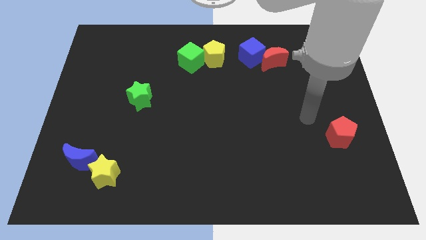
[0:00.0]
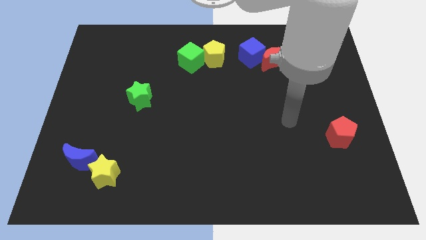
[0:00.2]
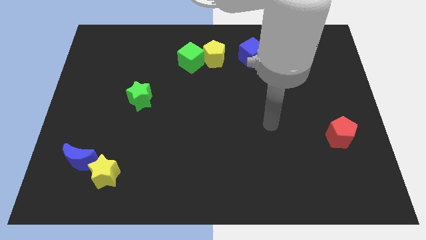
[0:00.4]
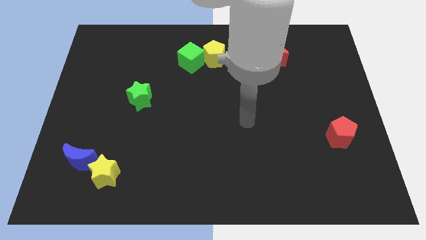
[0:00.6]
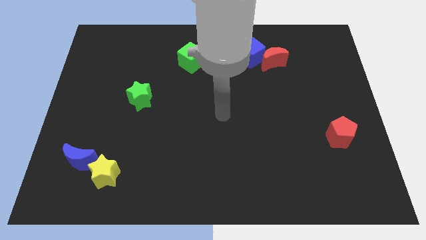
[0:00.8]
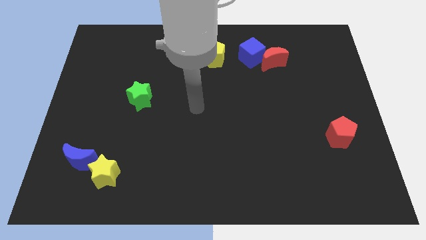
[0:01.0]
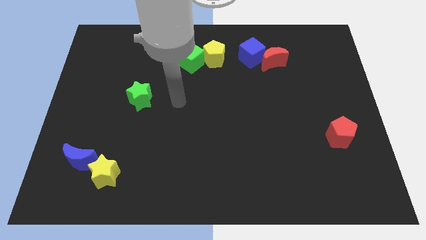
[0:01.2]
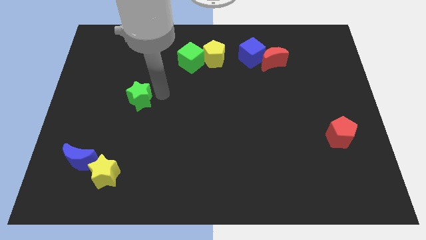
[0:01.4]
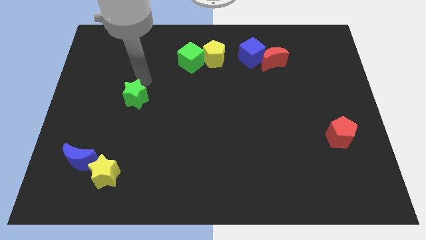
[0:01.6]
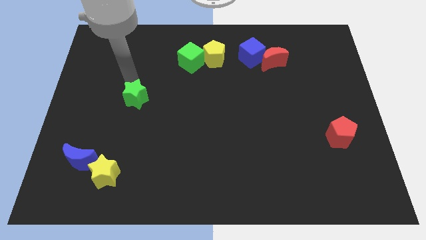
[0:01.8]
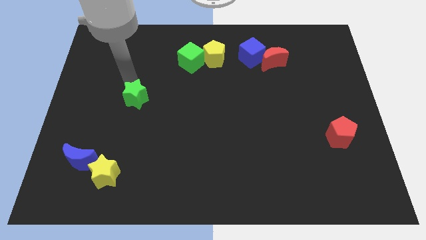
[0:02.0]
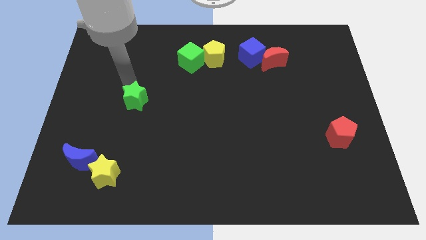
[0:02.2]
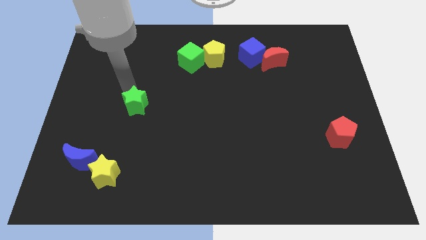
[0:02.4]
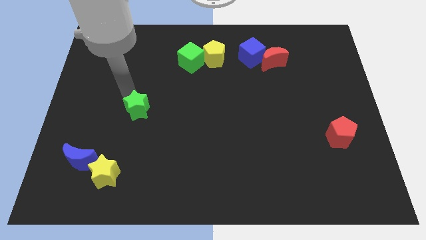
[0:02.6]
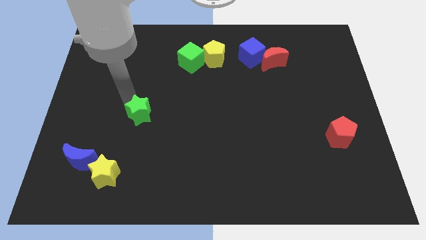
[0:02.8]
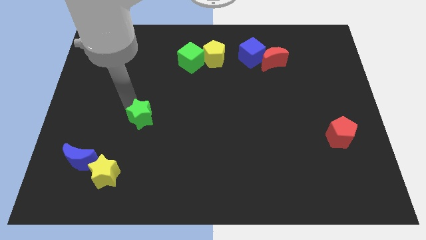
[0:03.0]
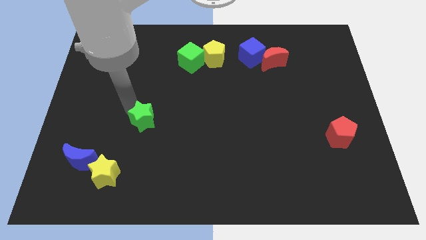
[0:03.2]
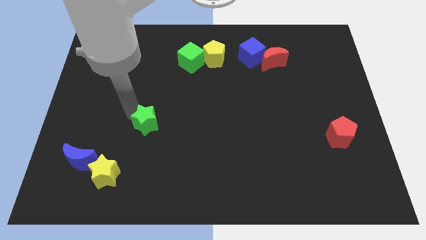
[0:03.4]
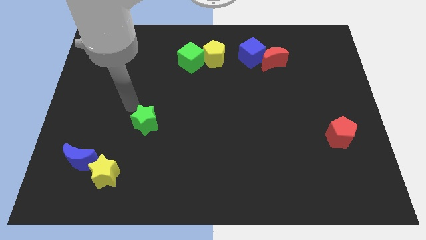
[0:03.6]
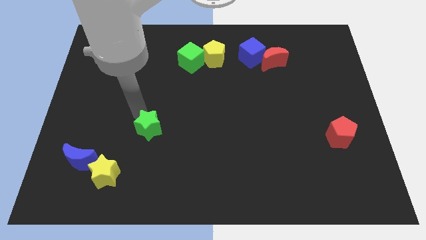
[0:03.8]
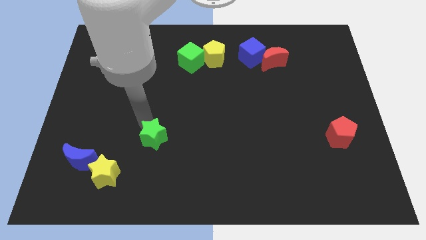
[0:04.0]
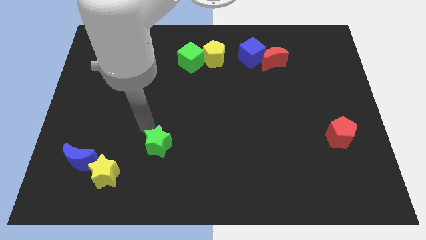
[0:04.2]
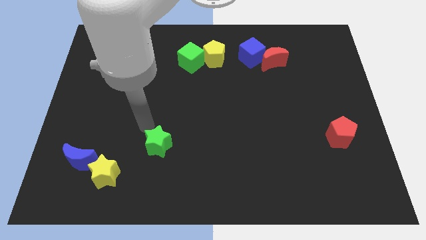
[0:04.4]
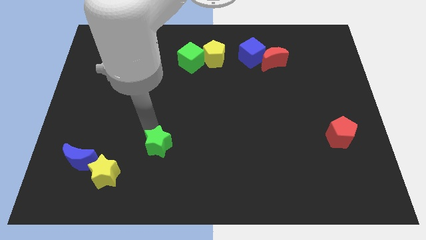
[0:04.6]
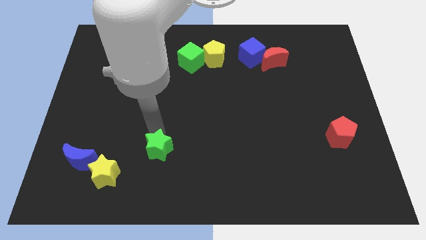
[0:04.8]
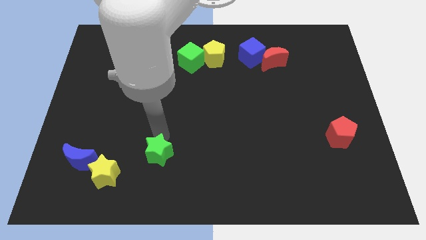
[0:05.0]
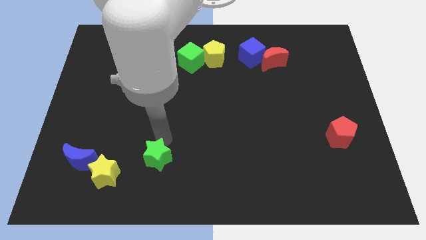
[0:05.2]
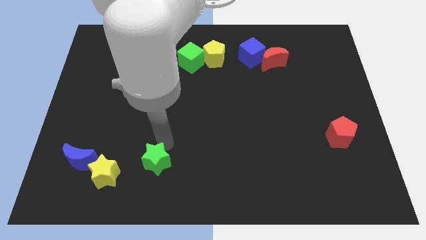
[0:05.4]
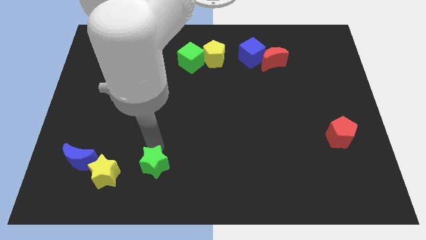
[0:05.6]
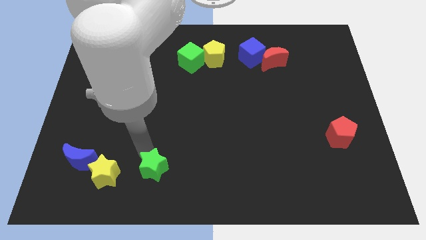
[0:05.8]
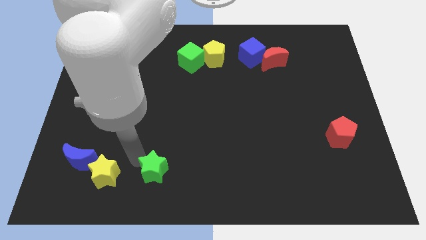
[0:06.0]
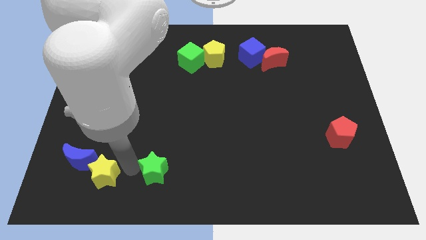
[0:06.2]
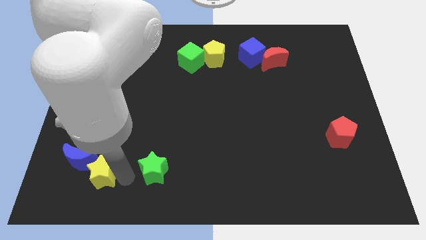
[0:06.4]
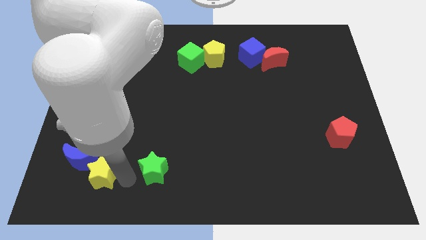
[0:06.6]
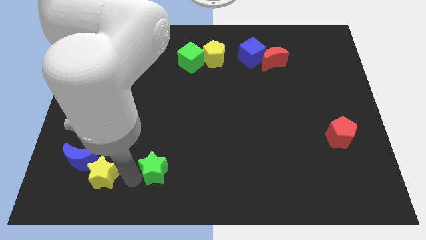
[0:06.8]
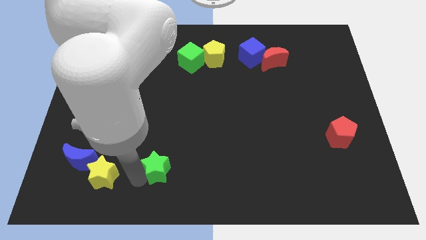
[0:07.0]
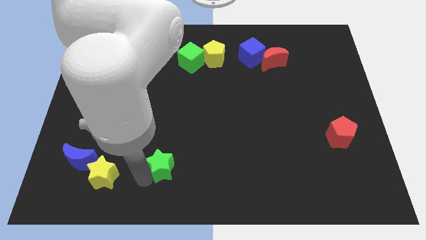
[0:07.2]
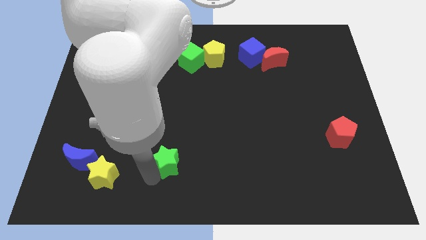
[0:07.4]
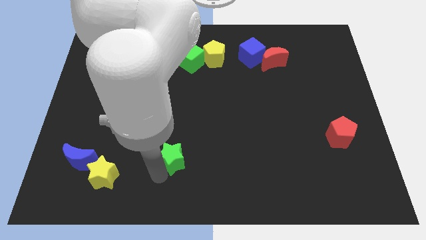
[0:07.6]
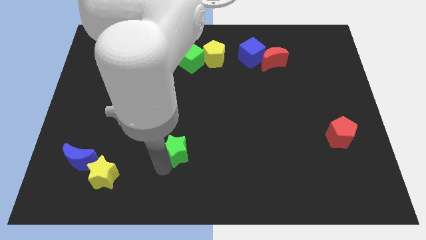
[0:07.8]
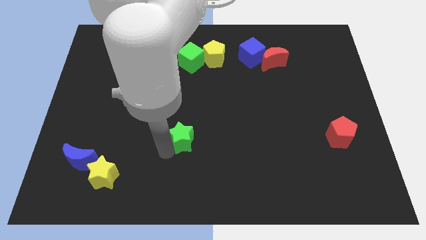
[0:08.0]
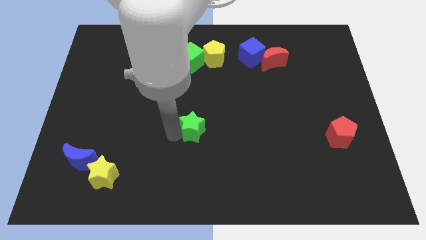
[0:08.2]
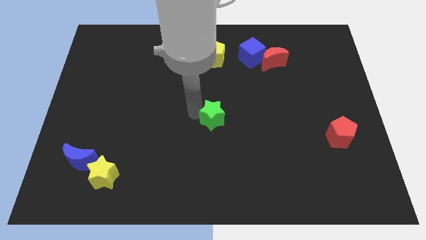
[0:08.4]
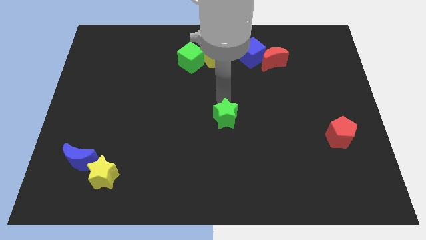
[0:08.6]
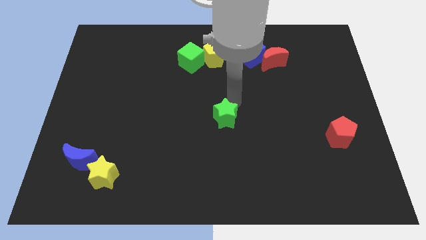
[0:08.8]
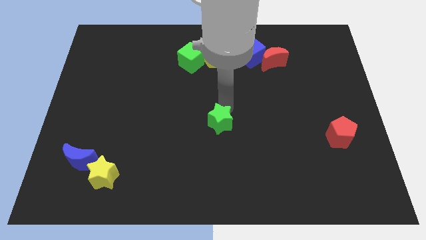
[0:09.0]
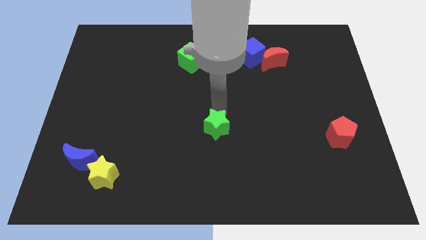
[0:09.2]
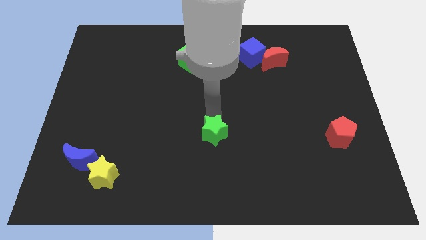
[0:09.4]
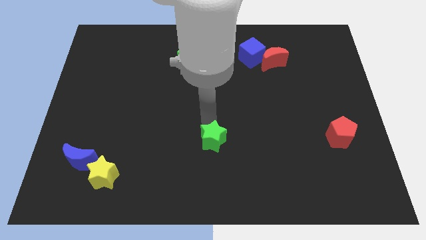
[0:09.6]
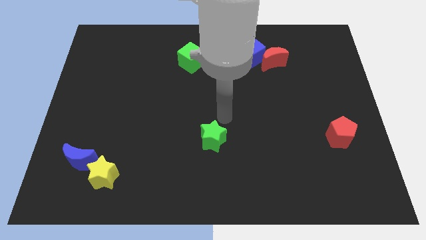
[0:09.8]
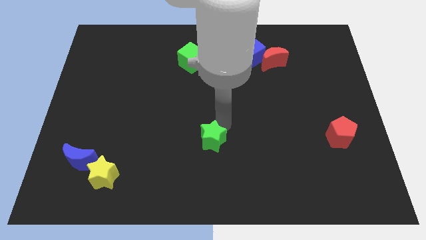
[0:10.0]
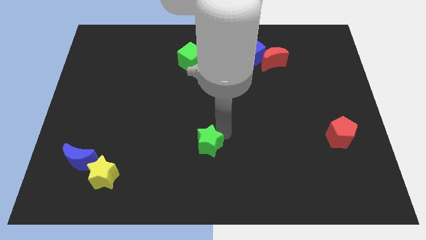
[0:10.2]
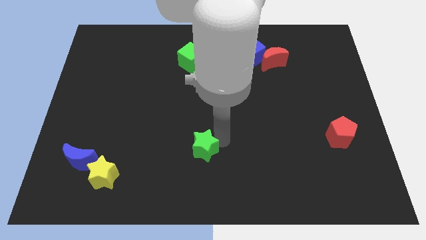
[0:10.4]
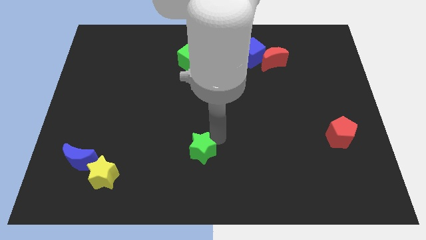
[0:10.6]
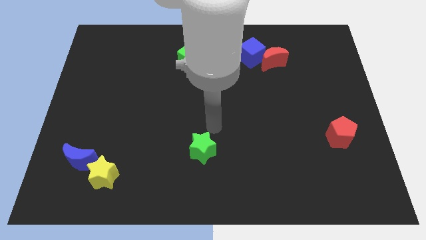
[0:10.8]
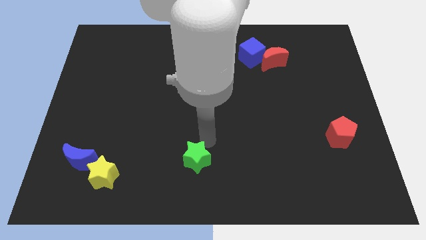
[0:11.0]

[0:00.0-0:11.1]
slide the green star to the bottom side
